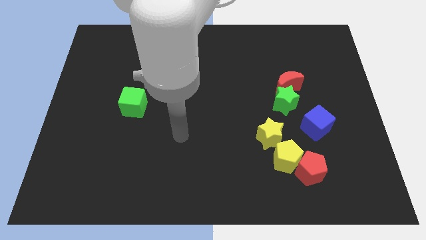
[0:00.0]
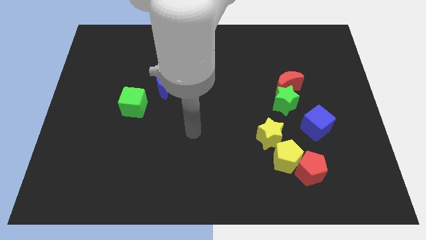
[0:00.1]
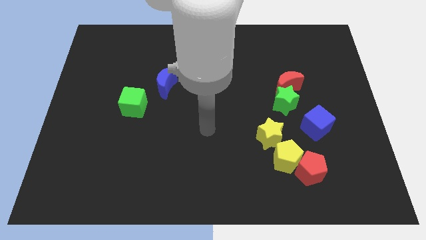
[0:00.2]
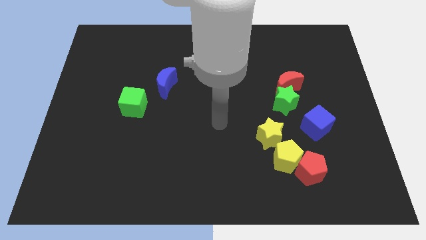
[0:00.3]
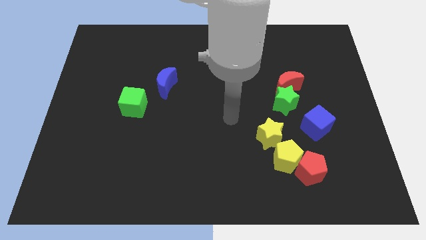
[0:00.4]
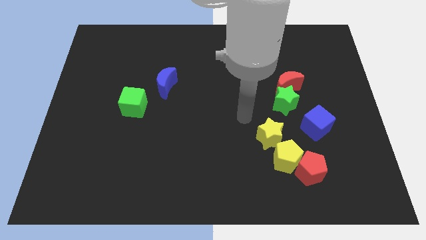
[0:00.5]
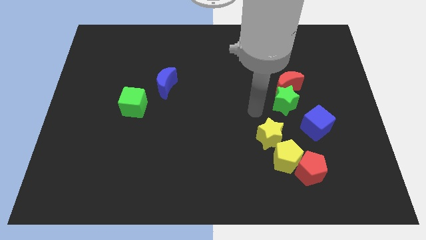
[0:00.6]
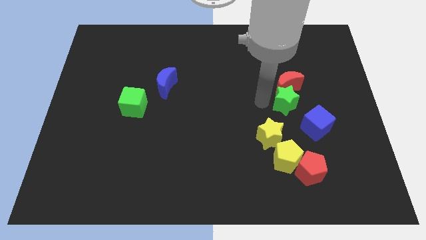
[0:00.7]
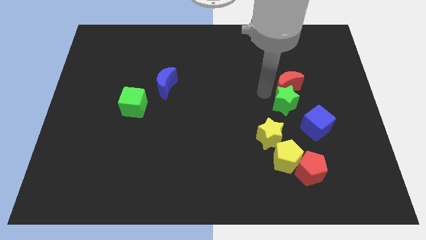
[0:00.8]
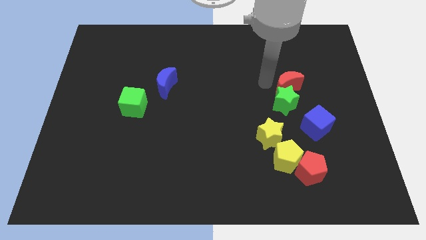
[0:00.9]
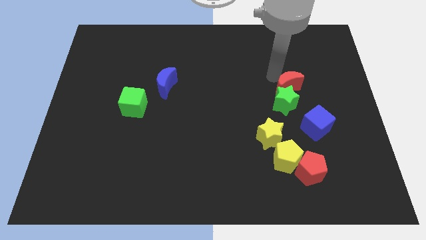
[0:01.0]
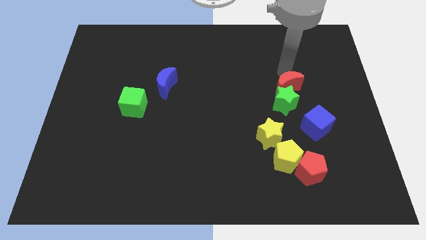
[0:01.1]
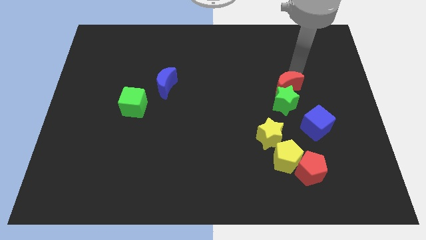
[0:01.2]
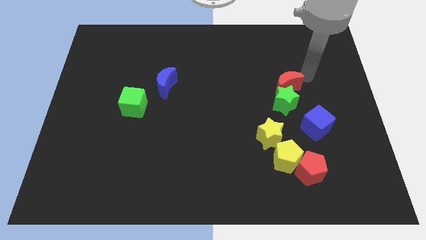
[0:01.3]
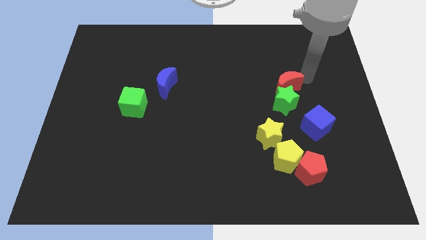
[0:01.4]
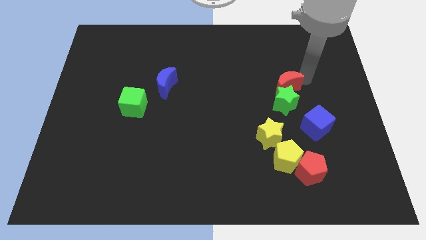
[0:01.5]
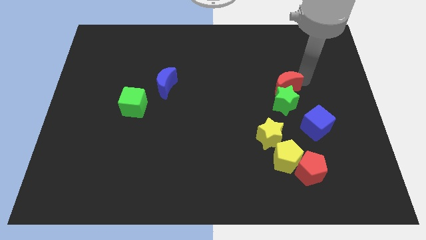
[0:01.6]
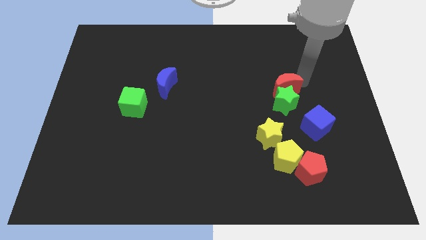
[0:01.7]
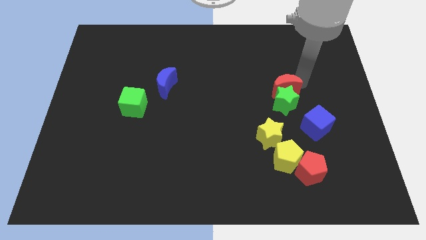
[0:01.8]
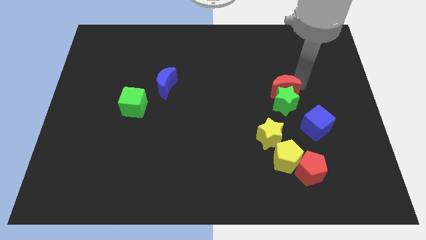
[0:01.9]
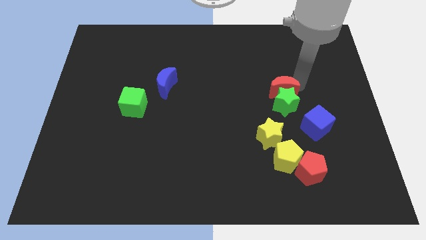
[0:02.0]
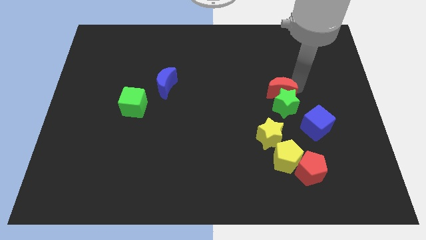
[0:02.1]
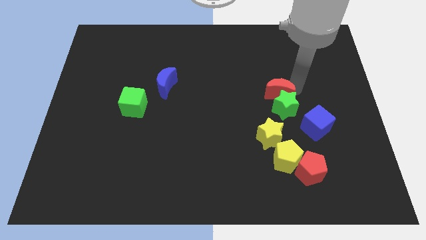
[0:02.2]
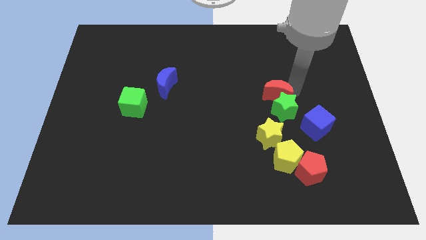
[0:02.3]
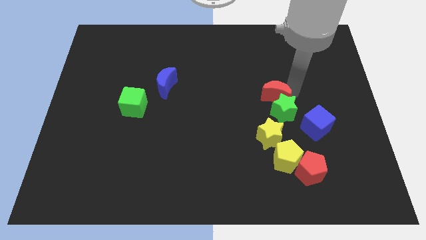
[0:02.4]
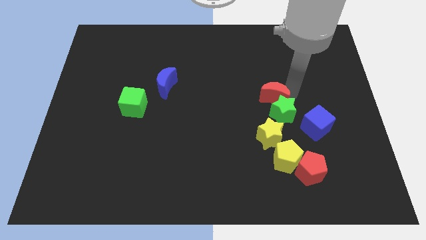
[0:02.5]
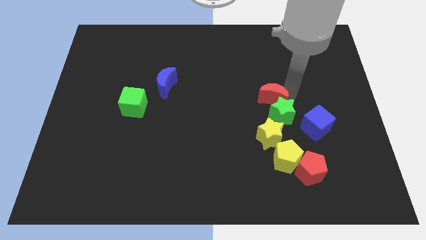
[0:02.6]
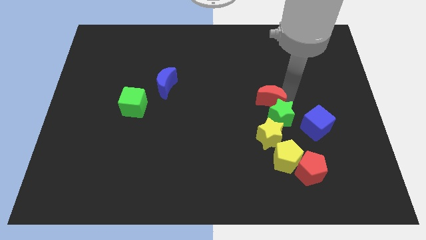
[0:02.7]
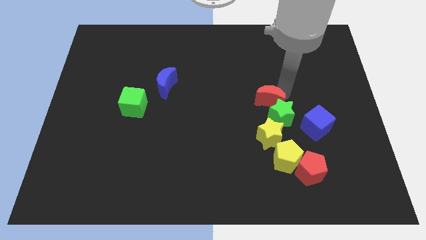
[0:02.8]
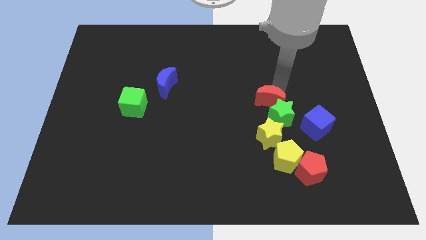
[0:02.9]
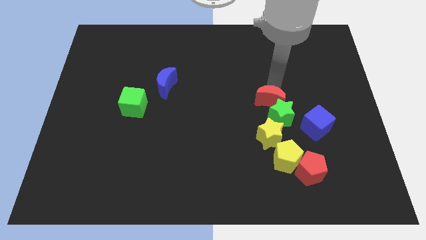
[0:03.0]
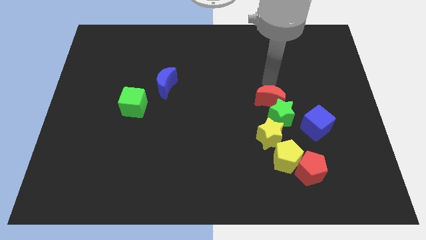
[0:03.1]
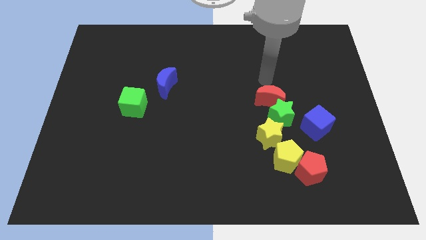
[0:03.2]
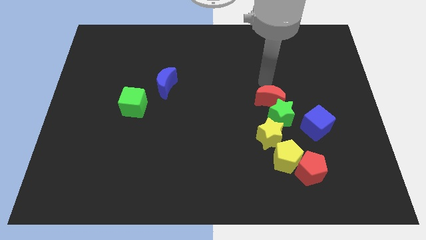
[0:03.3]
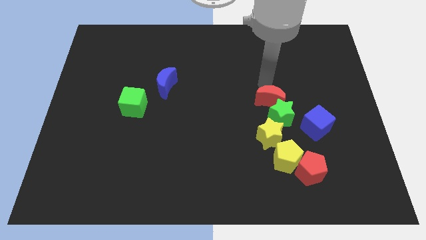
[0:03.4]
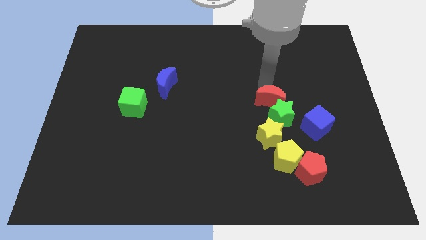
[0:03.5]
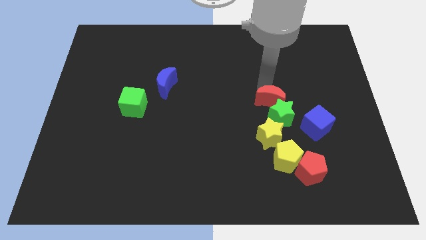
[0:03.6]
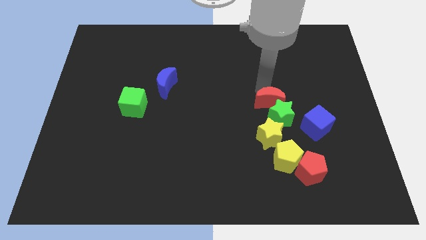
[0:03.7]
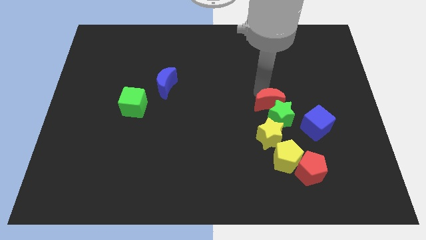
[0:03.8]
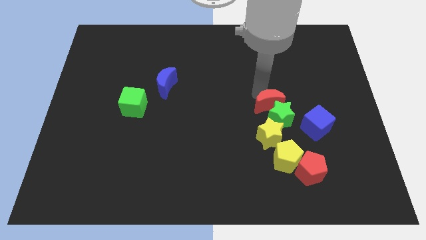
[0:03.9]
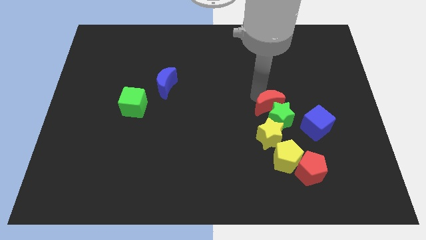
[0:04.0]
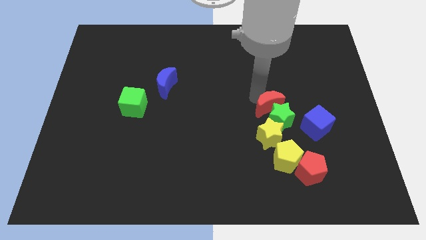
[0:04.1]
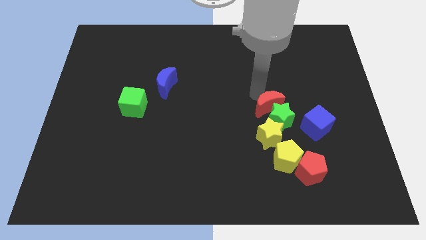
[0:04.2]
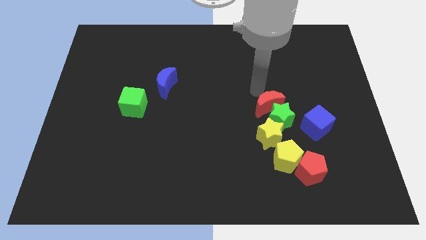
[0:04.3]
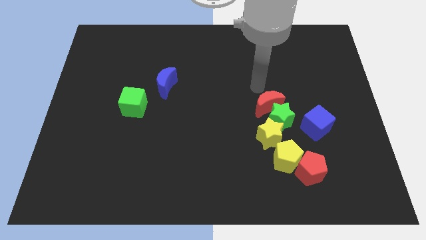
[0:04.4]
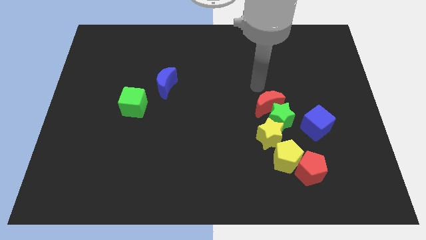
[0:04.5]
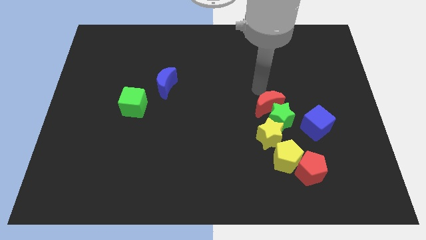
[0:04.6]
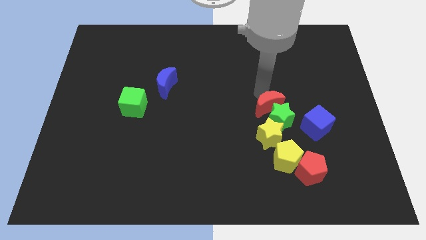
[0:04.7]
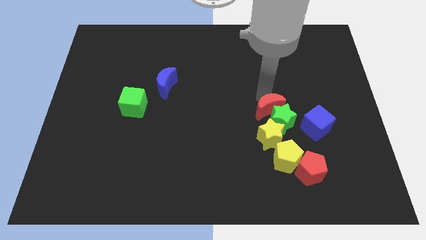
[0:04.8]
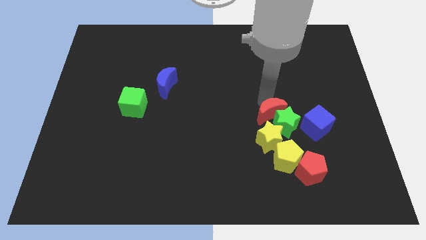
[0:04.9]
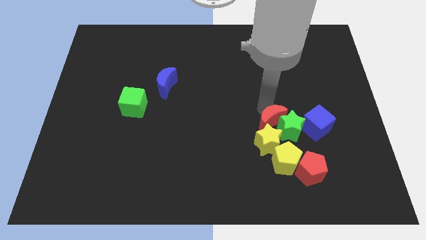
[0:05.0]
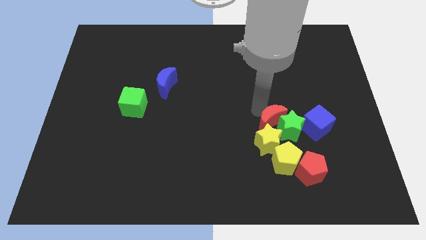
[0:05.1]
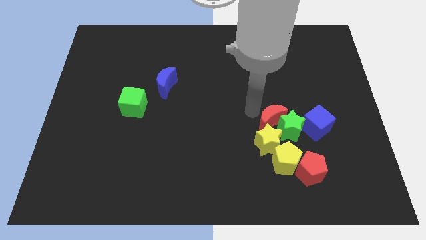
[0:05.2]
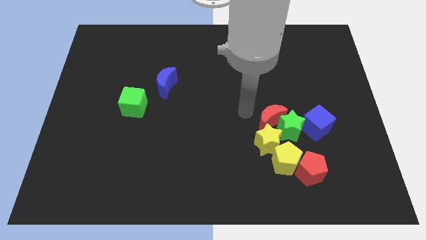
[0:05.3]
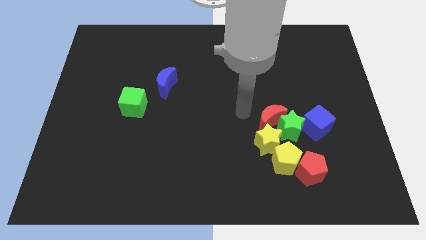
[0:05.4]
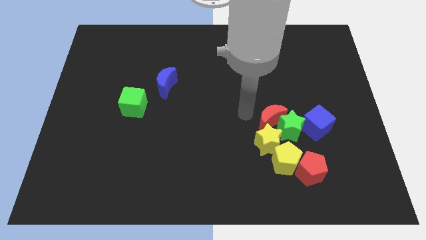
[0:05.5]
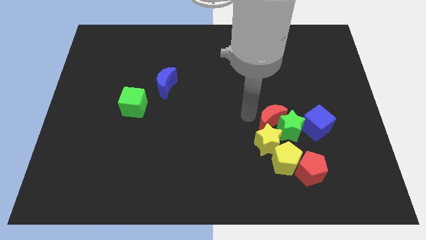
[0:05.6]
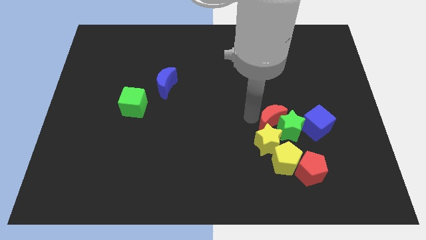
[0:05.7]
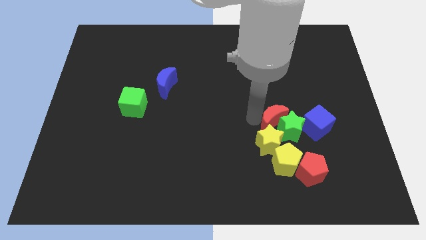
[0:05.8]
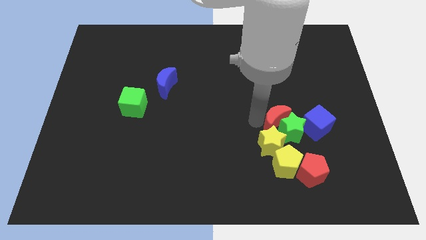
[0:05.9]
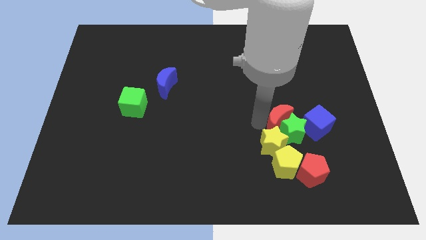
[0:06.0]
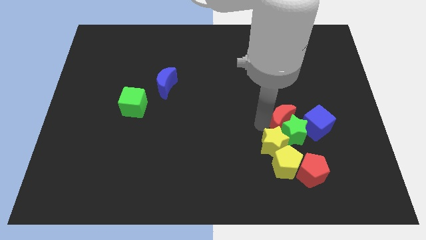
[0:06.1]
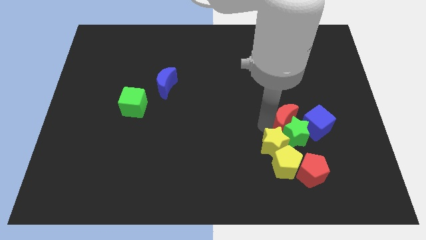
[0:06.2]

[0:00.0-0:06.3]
push the red moon to the top side of the red pentagon

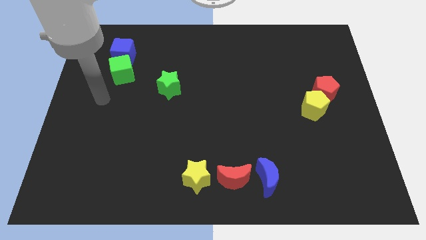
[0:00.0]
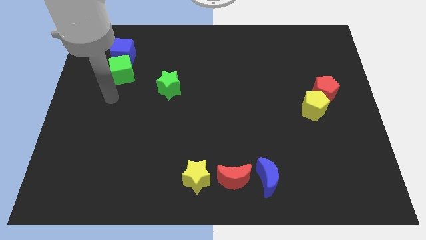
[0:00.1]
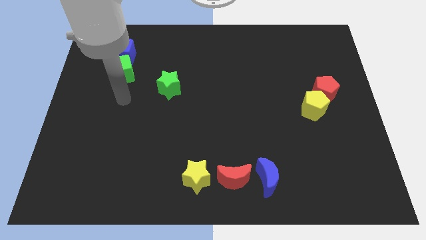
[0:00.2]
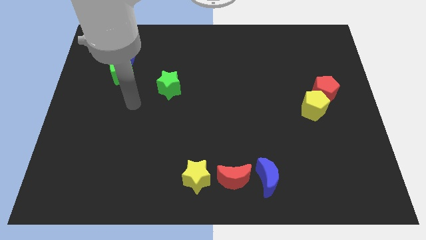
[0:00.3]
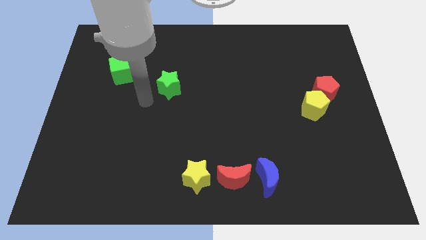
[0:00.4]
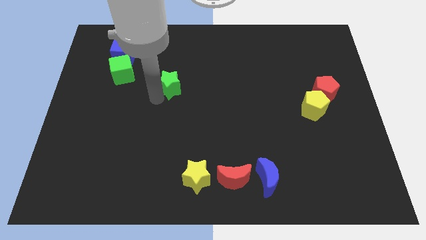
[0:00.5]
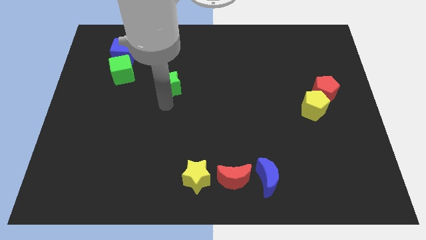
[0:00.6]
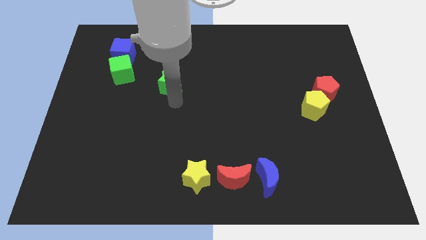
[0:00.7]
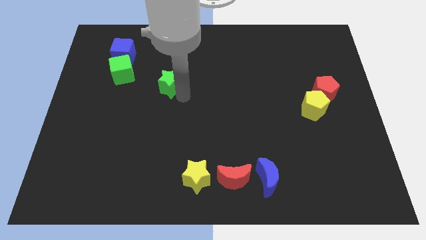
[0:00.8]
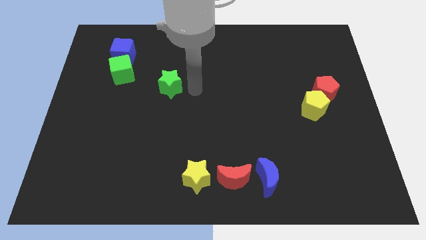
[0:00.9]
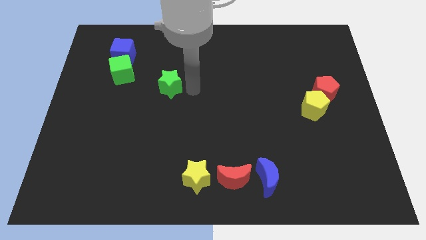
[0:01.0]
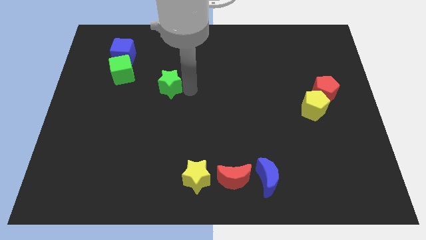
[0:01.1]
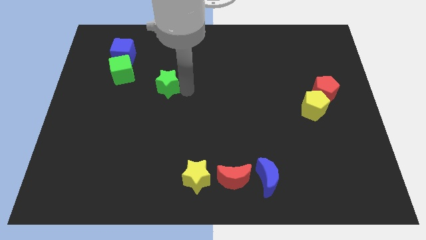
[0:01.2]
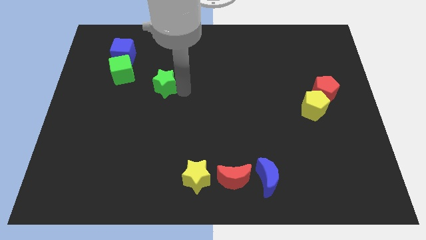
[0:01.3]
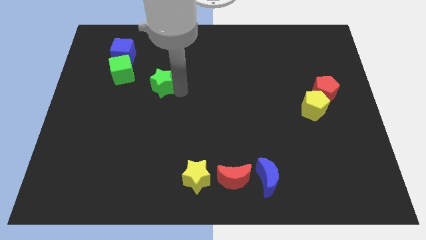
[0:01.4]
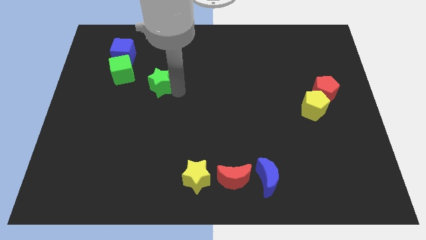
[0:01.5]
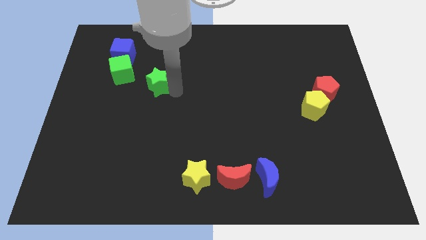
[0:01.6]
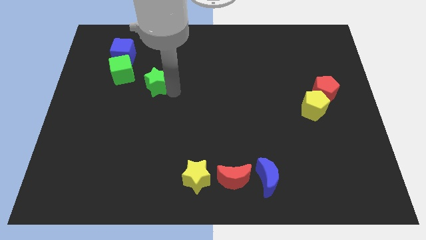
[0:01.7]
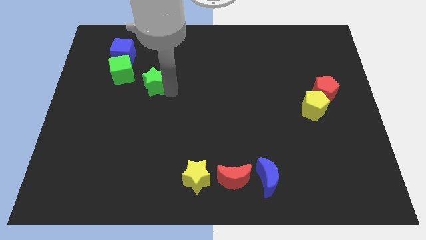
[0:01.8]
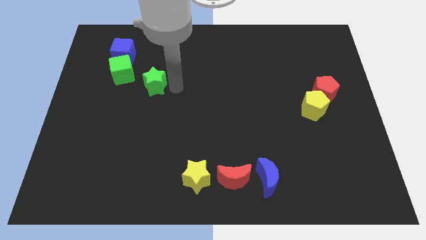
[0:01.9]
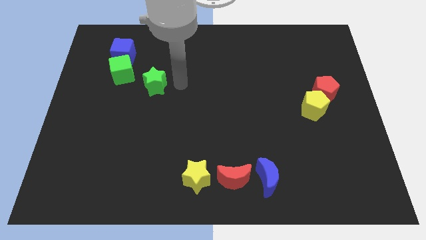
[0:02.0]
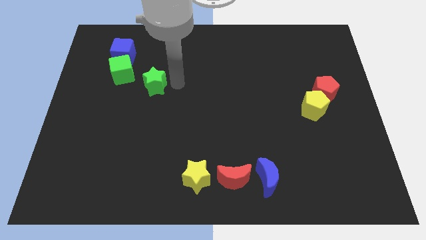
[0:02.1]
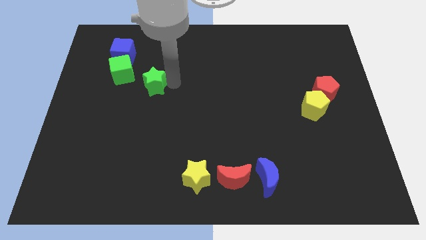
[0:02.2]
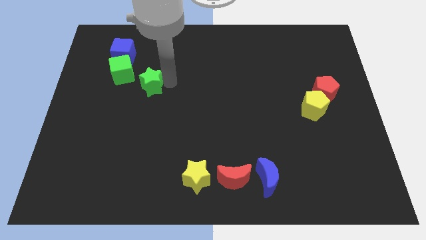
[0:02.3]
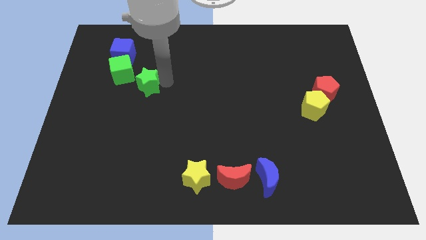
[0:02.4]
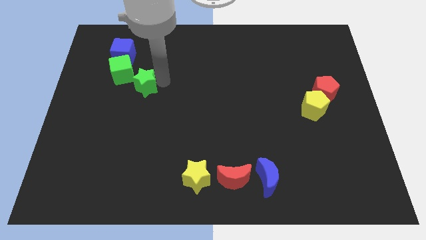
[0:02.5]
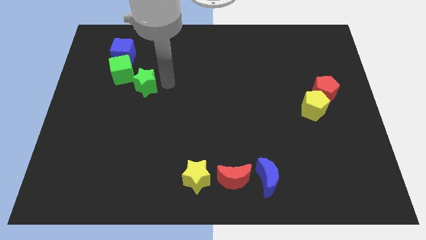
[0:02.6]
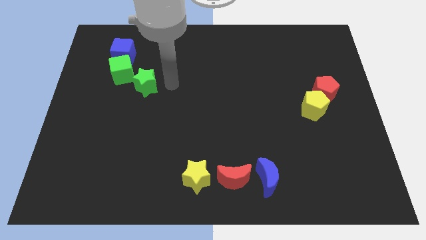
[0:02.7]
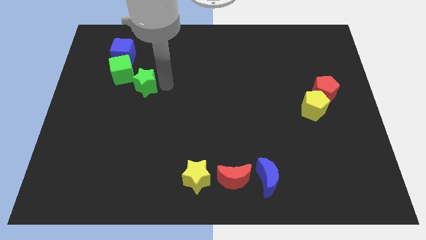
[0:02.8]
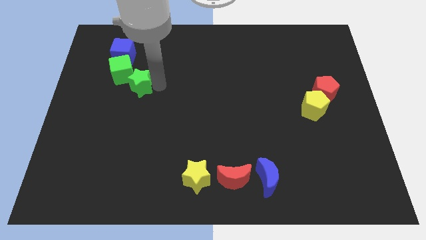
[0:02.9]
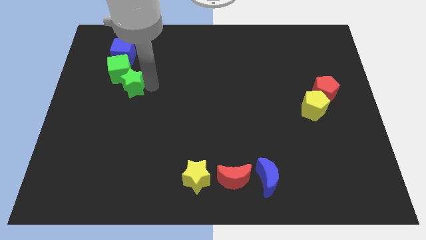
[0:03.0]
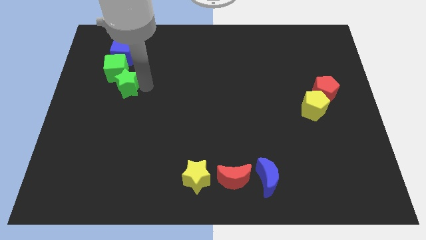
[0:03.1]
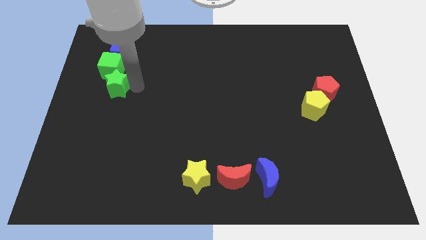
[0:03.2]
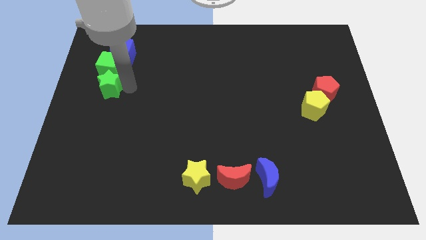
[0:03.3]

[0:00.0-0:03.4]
move the green star to the bottom left of the green cube
